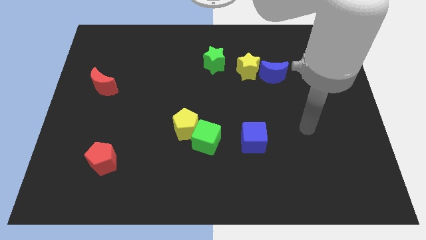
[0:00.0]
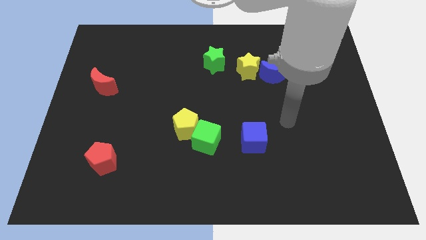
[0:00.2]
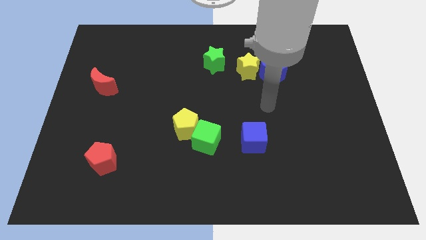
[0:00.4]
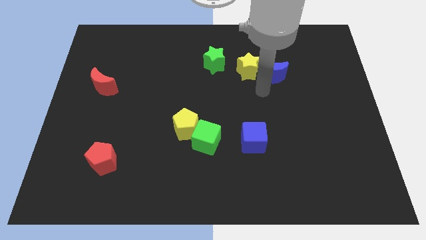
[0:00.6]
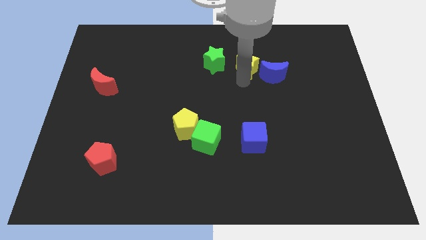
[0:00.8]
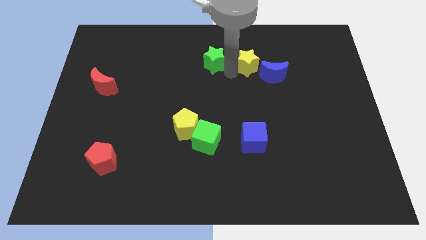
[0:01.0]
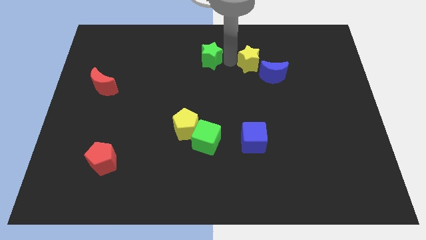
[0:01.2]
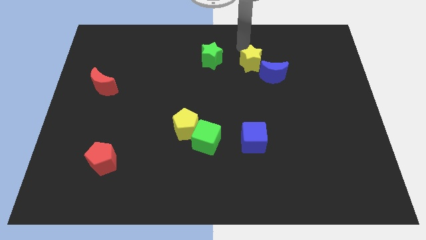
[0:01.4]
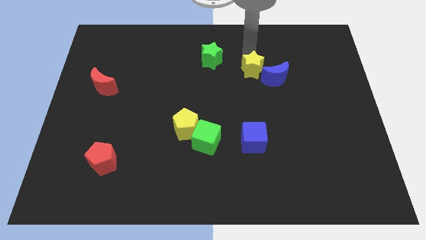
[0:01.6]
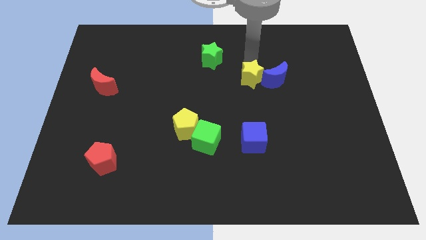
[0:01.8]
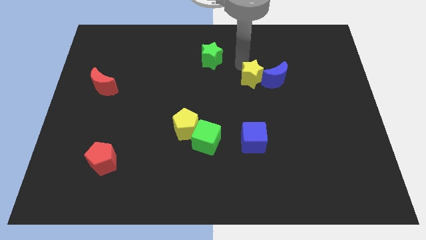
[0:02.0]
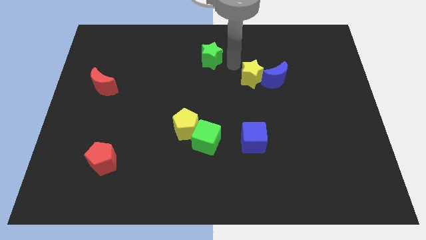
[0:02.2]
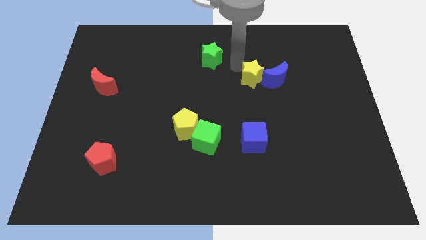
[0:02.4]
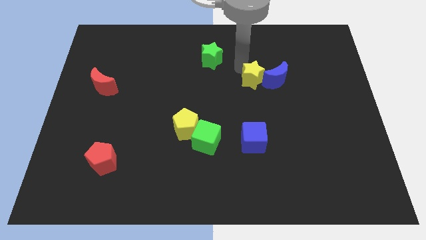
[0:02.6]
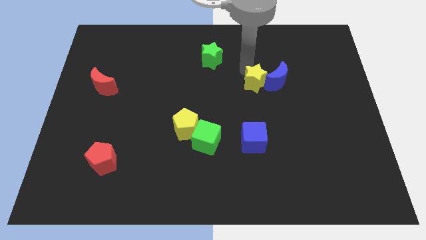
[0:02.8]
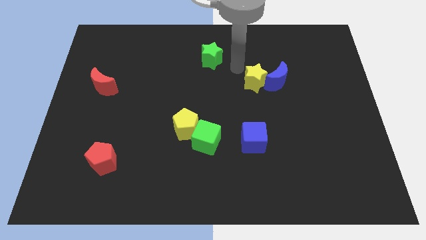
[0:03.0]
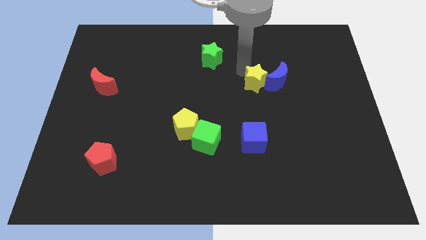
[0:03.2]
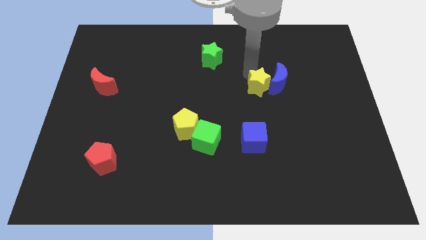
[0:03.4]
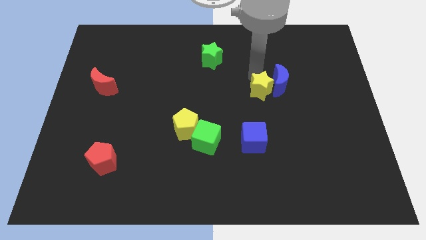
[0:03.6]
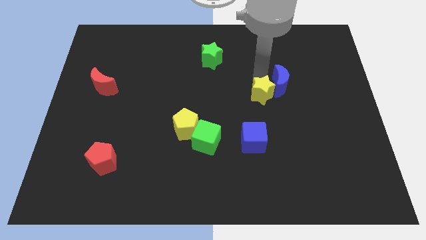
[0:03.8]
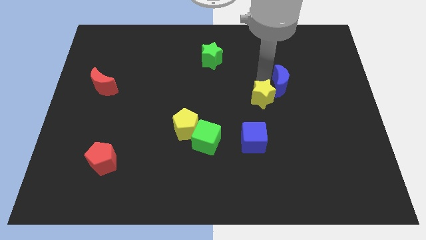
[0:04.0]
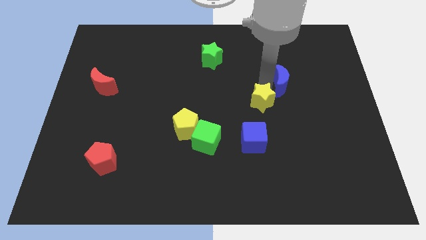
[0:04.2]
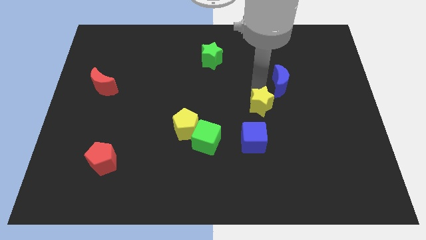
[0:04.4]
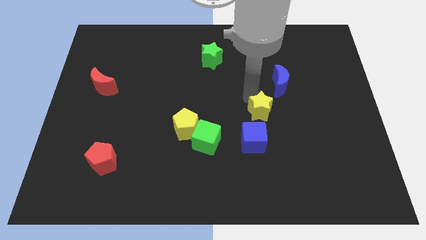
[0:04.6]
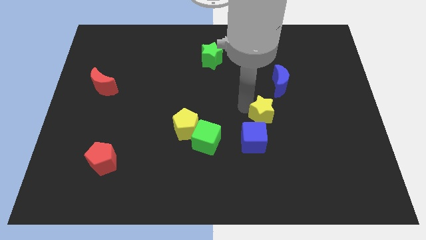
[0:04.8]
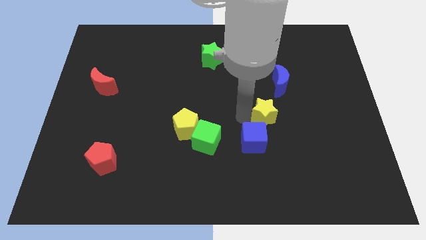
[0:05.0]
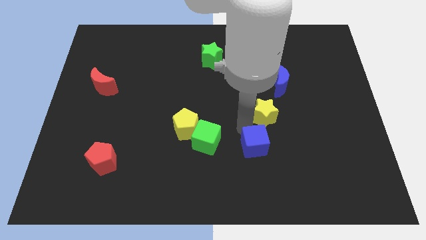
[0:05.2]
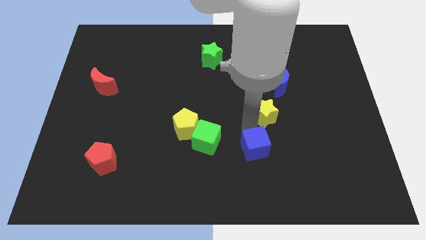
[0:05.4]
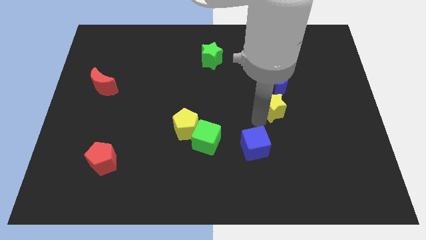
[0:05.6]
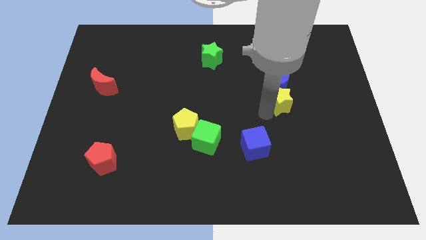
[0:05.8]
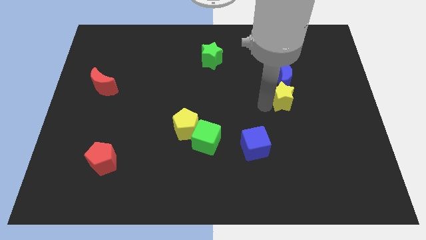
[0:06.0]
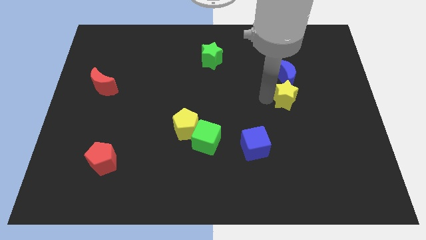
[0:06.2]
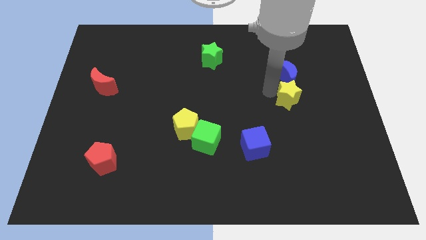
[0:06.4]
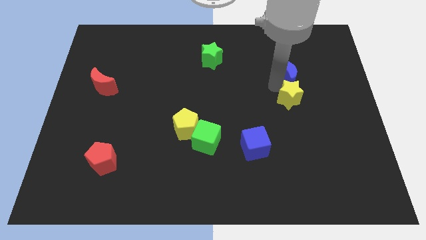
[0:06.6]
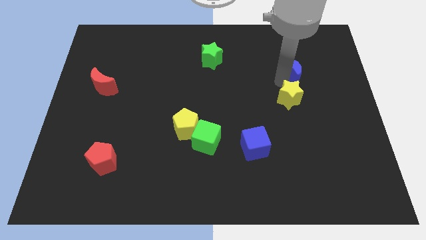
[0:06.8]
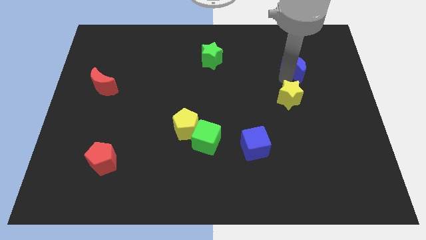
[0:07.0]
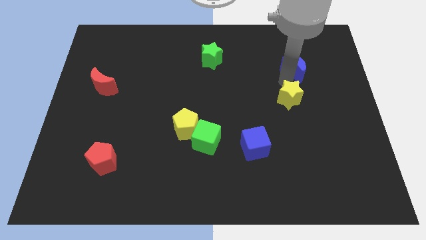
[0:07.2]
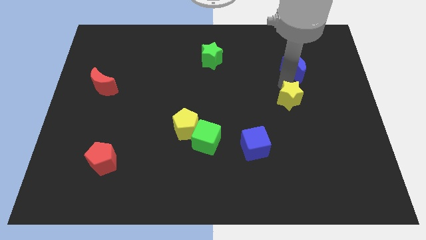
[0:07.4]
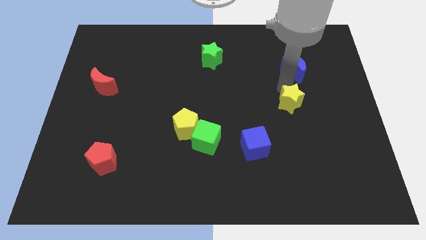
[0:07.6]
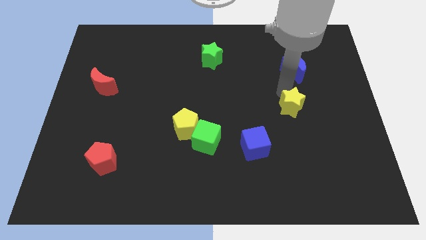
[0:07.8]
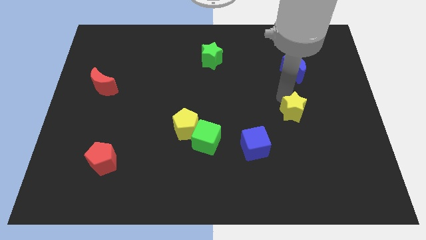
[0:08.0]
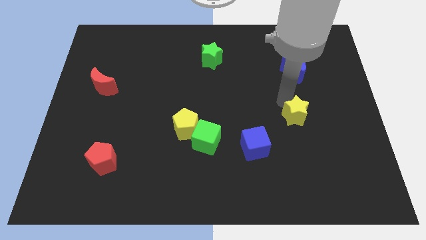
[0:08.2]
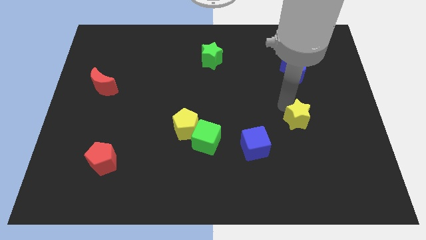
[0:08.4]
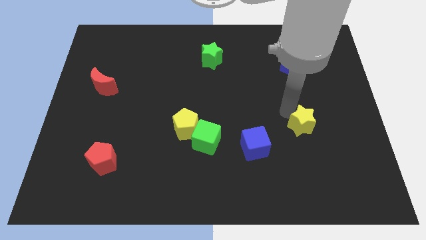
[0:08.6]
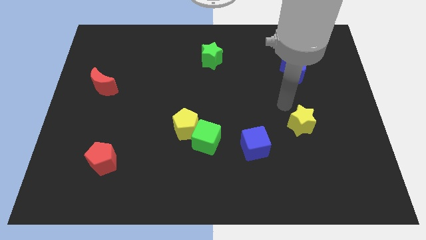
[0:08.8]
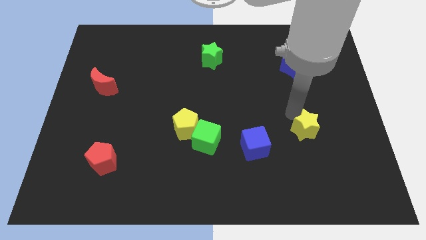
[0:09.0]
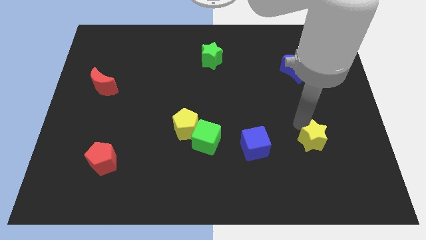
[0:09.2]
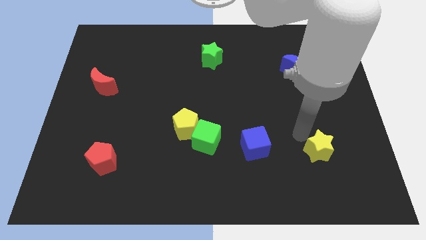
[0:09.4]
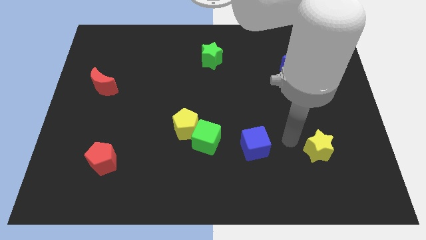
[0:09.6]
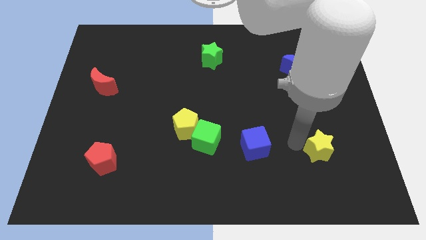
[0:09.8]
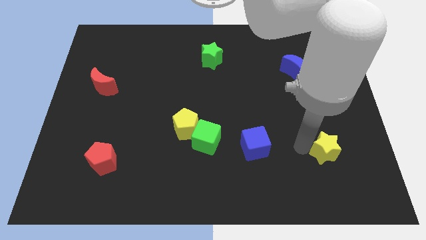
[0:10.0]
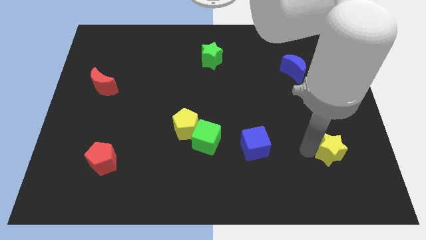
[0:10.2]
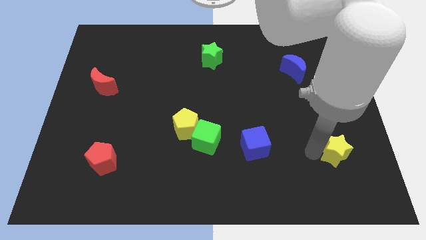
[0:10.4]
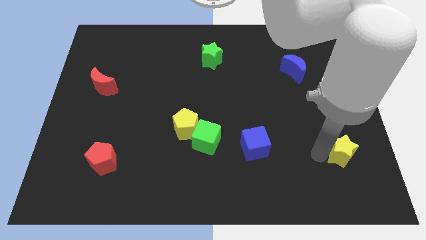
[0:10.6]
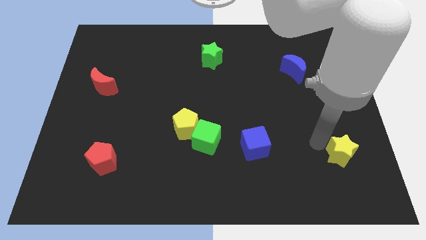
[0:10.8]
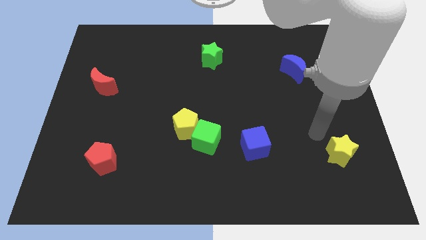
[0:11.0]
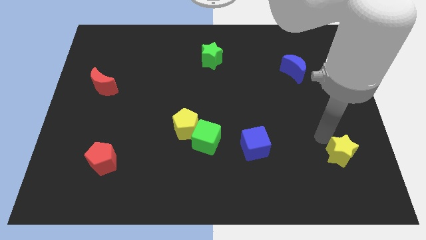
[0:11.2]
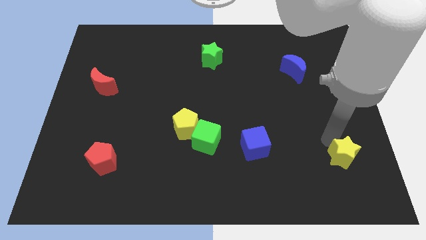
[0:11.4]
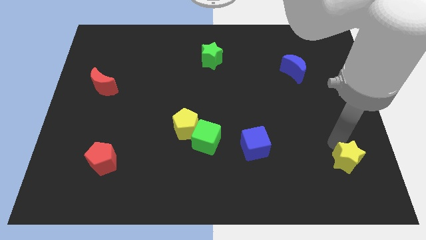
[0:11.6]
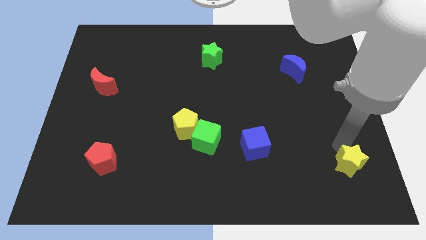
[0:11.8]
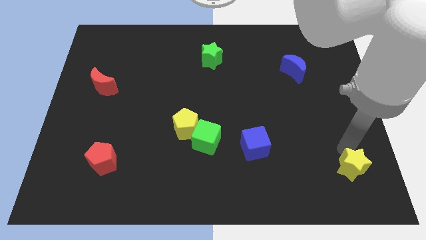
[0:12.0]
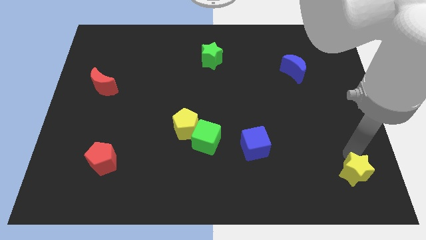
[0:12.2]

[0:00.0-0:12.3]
move the yellow star to the bottom right of the board

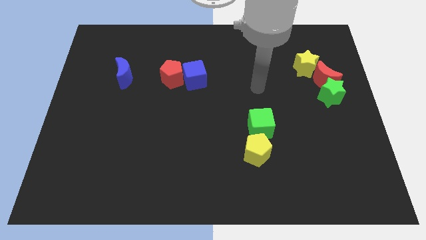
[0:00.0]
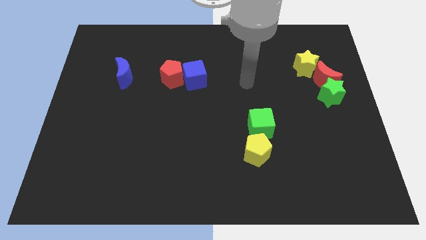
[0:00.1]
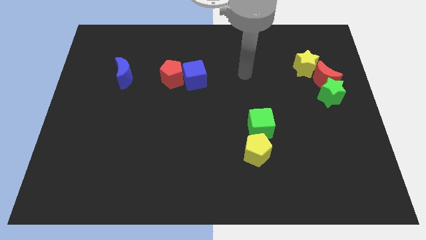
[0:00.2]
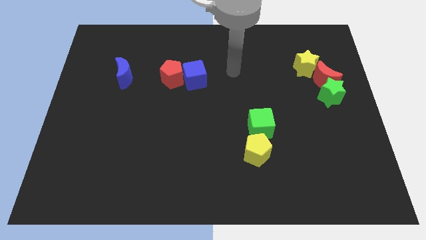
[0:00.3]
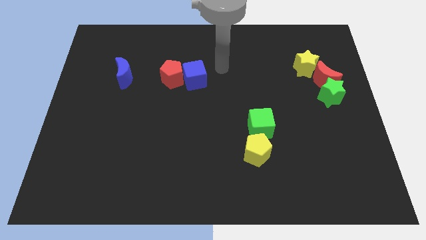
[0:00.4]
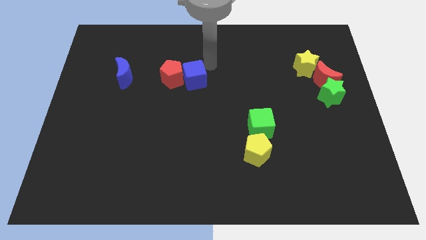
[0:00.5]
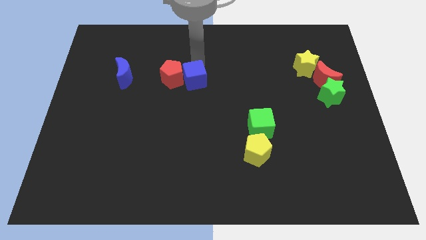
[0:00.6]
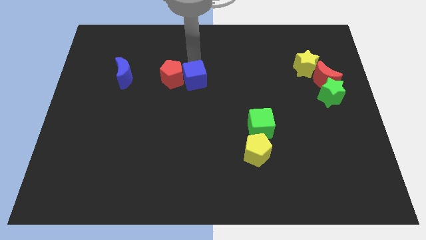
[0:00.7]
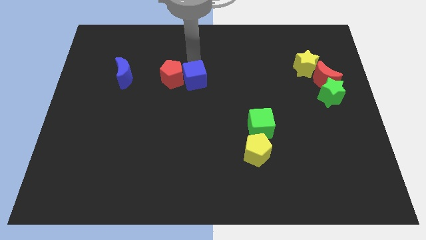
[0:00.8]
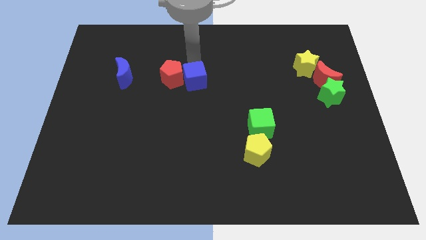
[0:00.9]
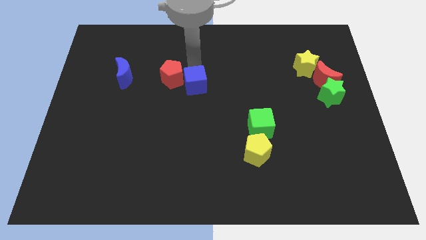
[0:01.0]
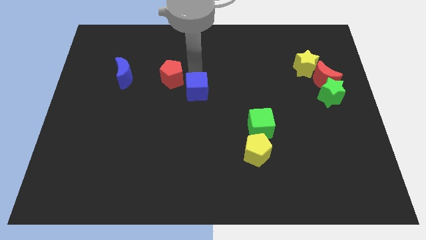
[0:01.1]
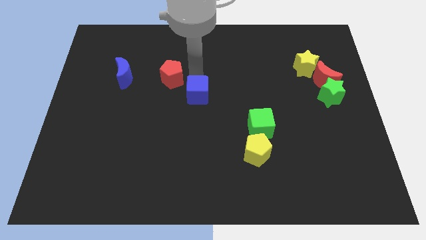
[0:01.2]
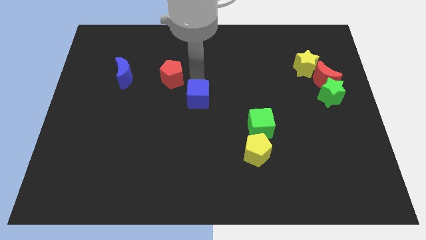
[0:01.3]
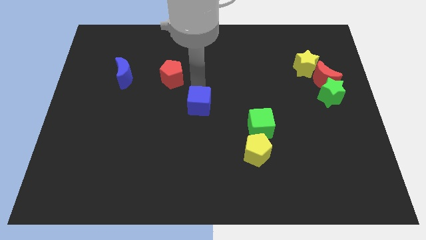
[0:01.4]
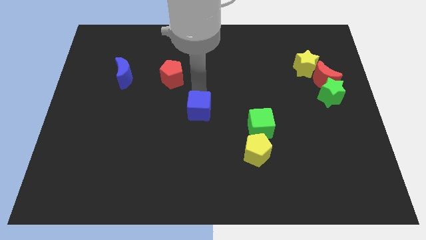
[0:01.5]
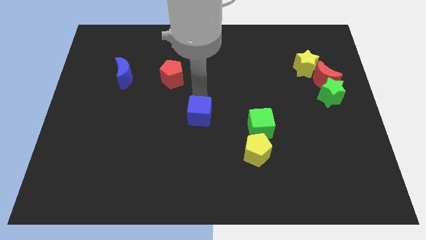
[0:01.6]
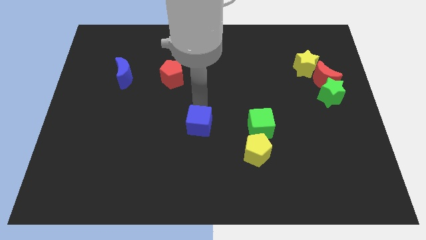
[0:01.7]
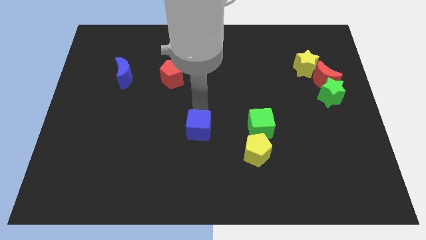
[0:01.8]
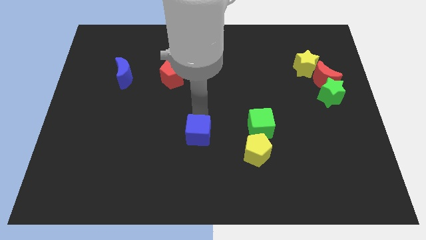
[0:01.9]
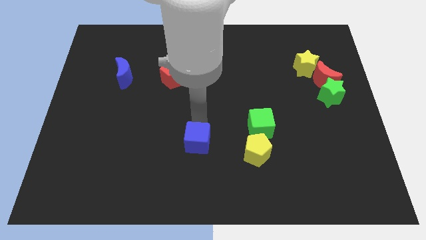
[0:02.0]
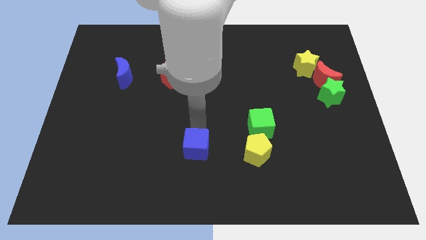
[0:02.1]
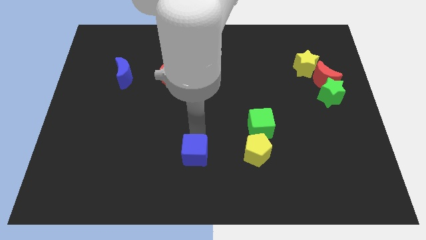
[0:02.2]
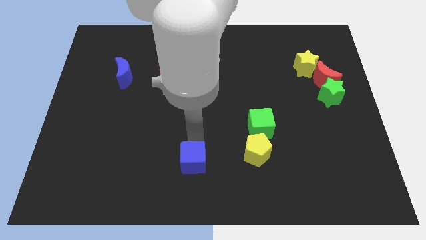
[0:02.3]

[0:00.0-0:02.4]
slide the blue cube to the bottom
